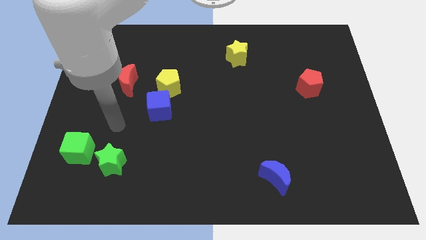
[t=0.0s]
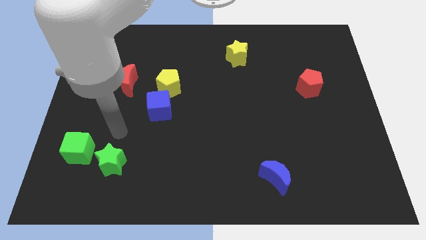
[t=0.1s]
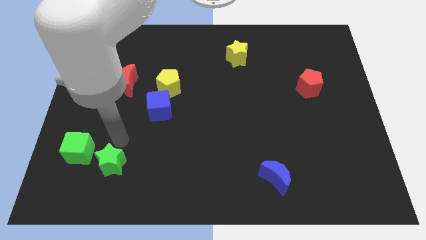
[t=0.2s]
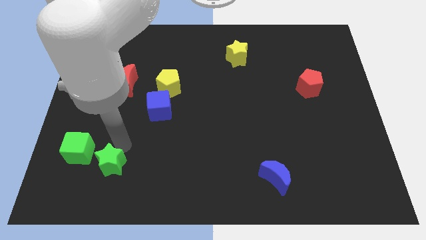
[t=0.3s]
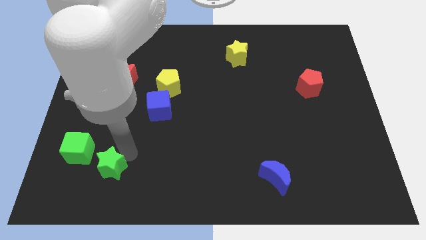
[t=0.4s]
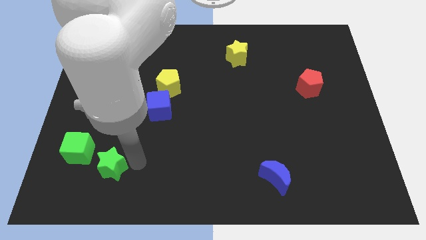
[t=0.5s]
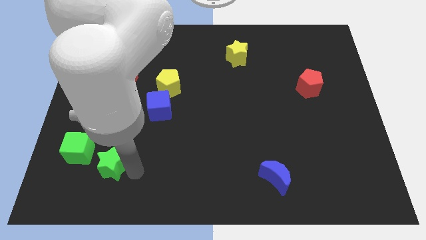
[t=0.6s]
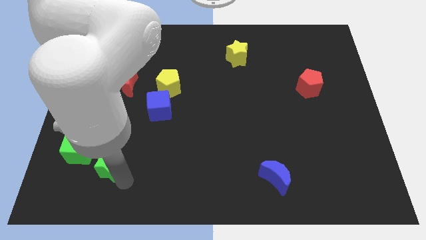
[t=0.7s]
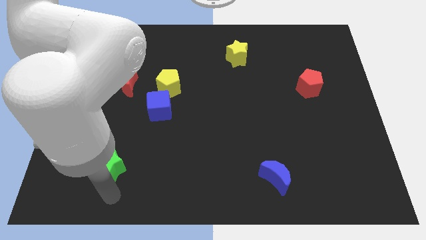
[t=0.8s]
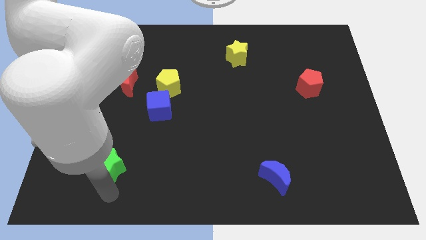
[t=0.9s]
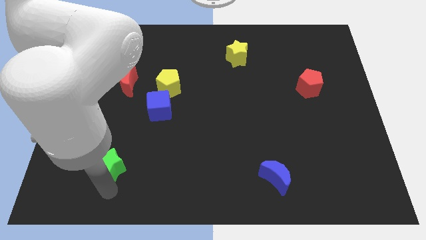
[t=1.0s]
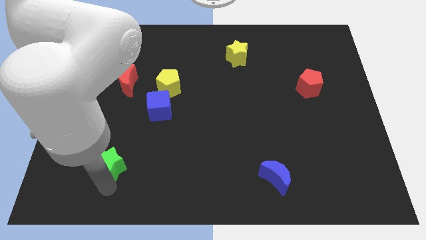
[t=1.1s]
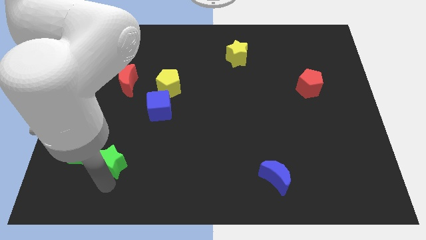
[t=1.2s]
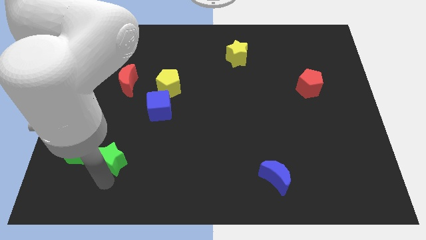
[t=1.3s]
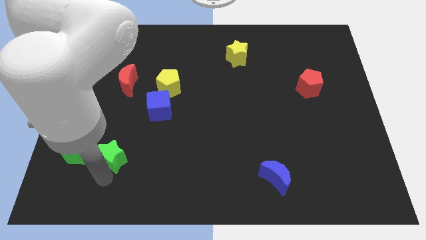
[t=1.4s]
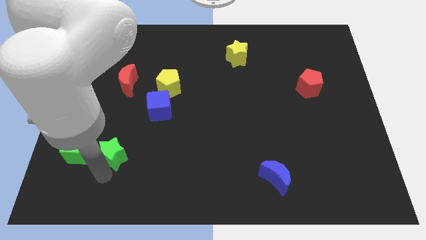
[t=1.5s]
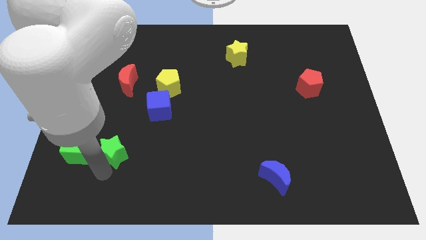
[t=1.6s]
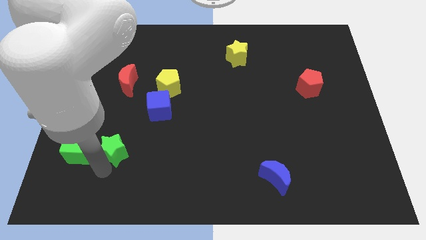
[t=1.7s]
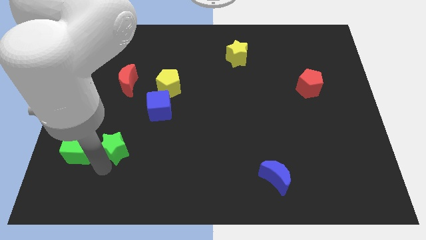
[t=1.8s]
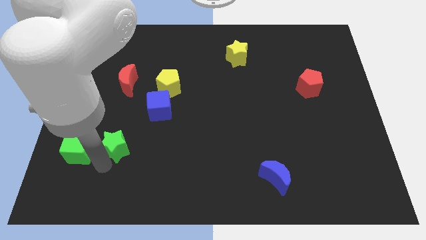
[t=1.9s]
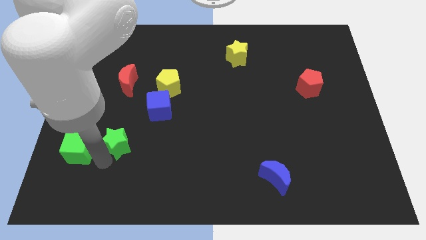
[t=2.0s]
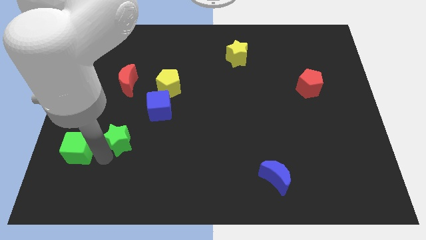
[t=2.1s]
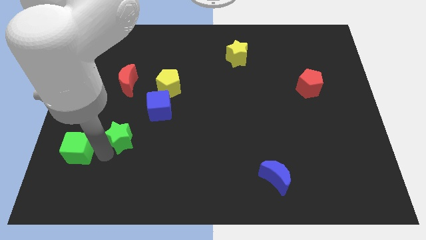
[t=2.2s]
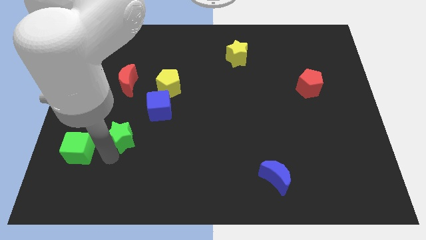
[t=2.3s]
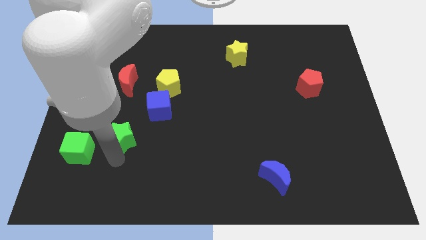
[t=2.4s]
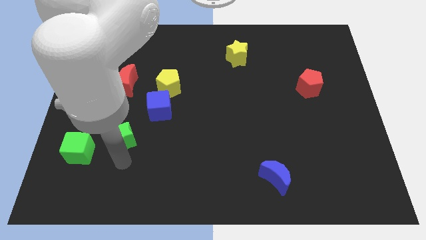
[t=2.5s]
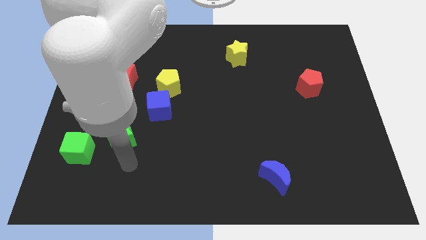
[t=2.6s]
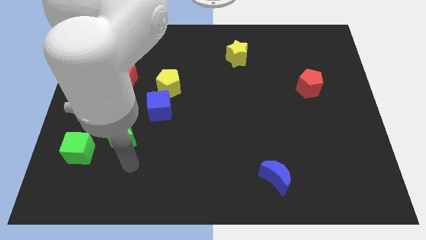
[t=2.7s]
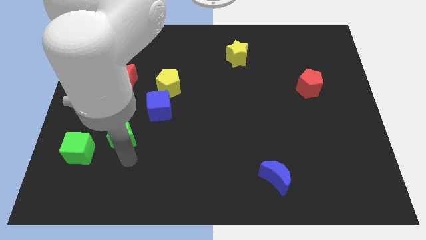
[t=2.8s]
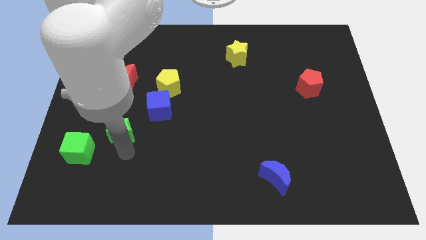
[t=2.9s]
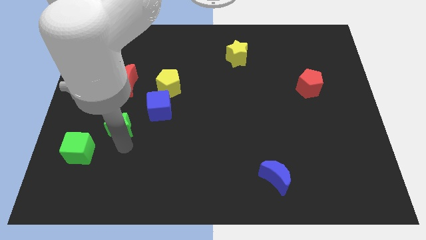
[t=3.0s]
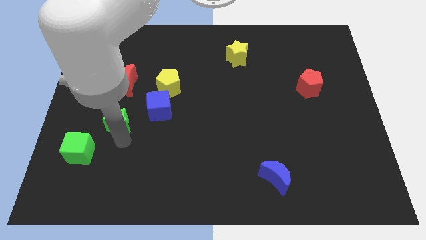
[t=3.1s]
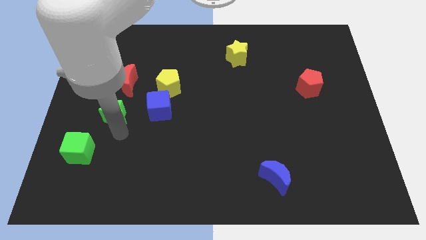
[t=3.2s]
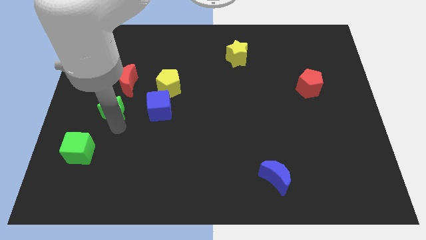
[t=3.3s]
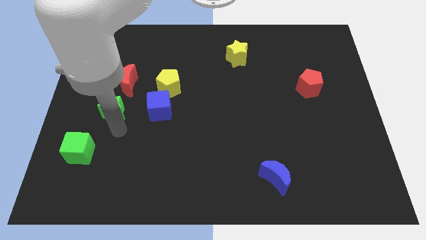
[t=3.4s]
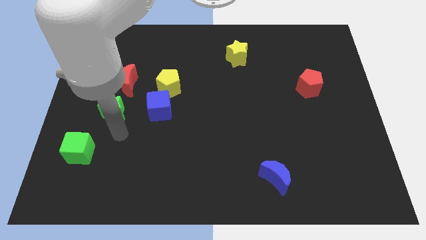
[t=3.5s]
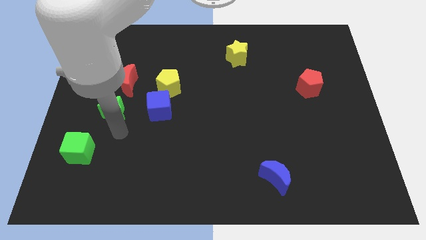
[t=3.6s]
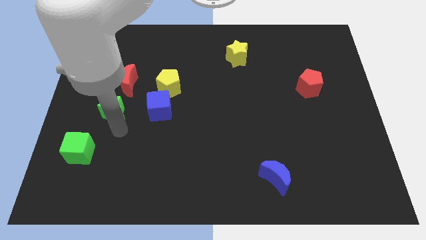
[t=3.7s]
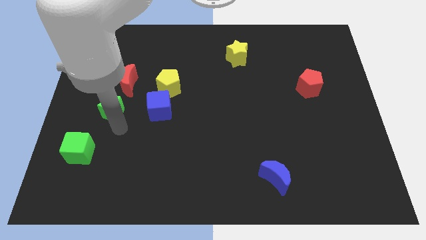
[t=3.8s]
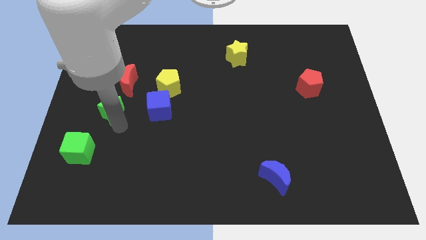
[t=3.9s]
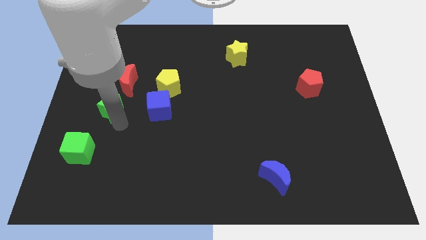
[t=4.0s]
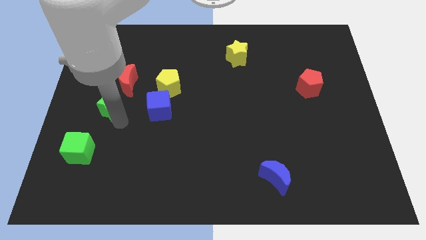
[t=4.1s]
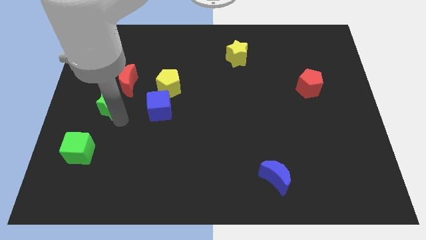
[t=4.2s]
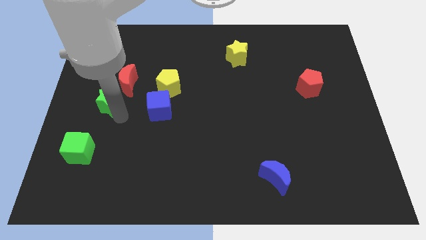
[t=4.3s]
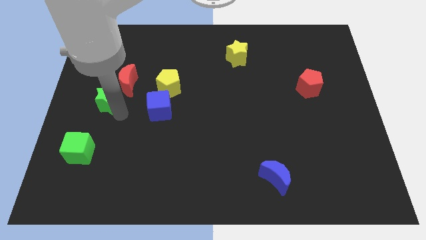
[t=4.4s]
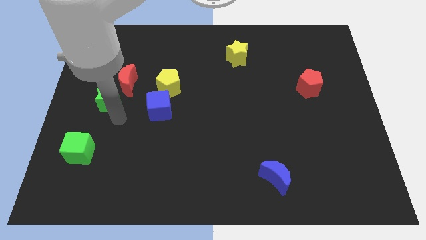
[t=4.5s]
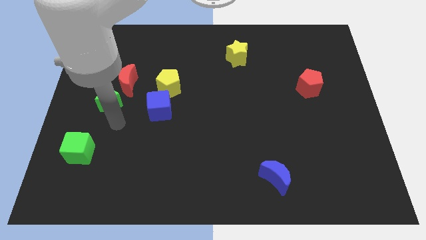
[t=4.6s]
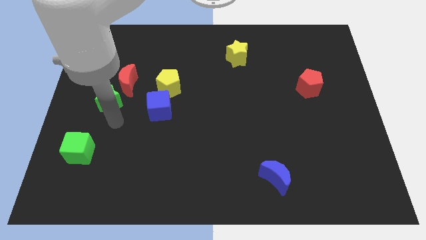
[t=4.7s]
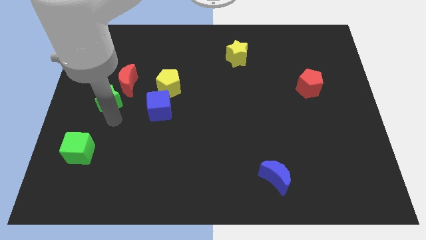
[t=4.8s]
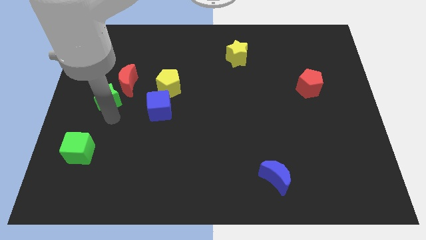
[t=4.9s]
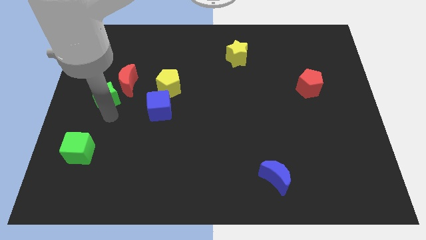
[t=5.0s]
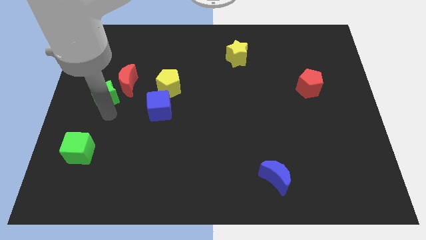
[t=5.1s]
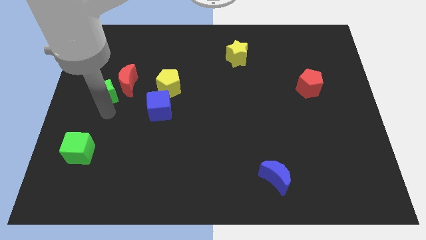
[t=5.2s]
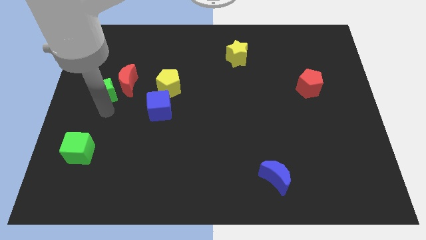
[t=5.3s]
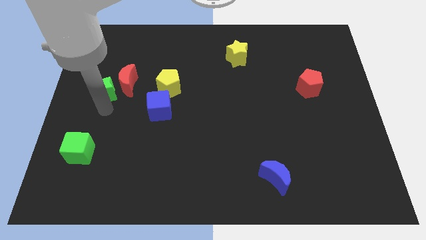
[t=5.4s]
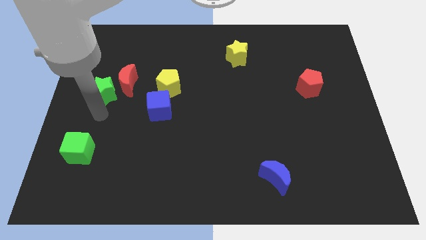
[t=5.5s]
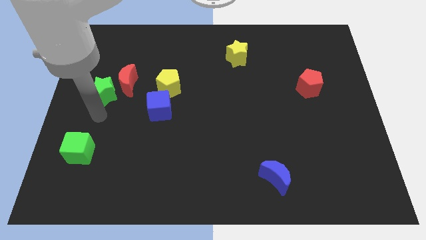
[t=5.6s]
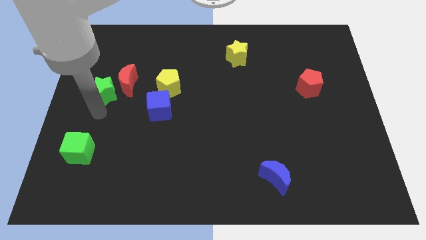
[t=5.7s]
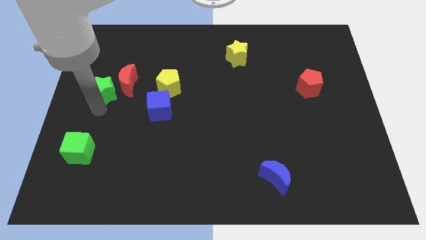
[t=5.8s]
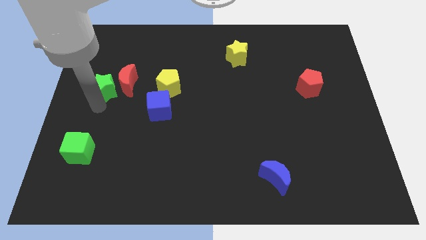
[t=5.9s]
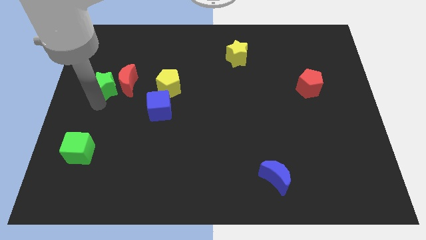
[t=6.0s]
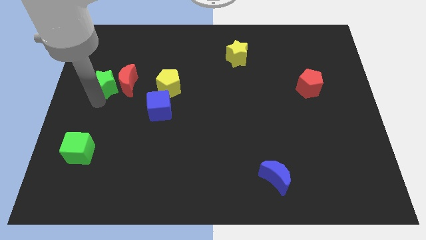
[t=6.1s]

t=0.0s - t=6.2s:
slide the green star to the top left of the red moon

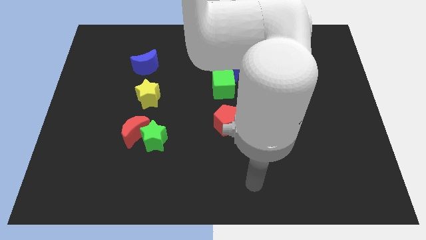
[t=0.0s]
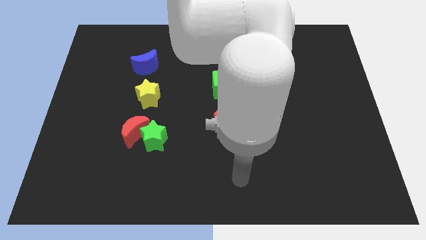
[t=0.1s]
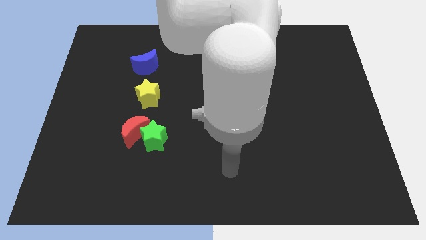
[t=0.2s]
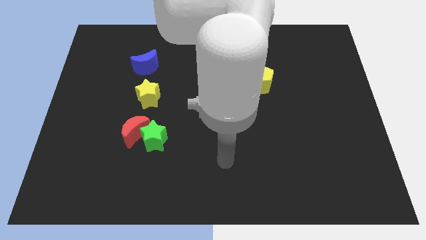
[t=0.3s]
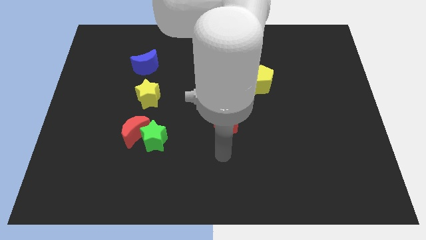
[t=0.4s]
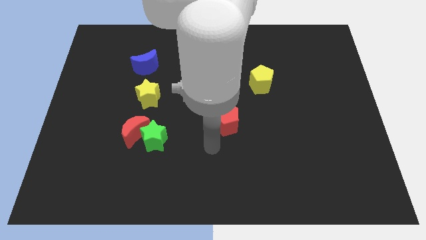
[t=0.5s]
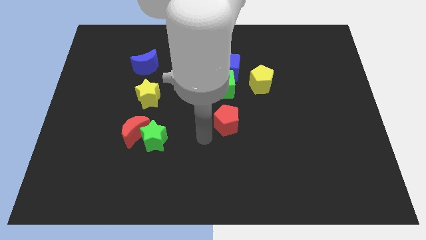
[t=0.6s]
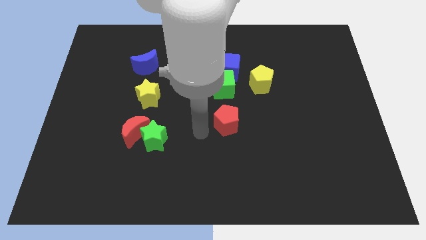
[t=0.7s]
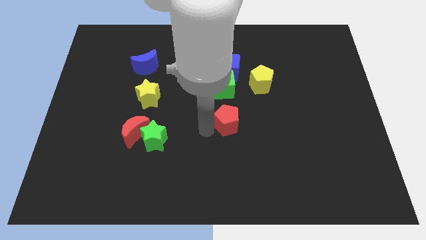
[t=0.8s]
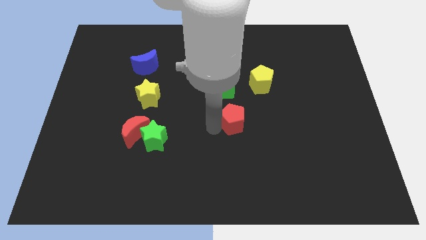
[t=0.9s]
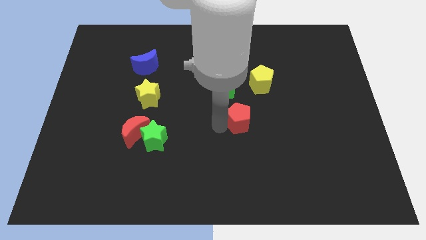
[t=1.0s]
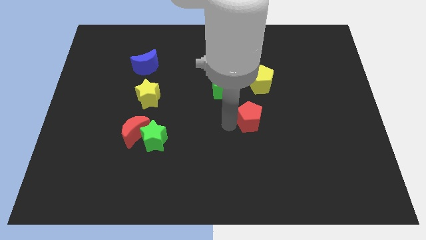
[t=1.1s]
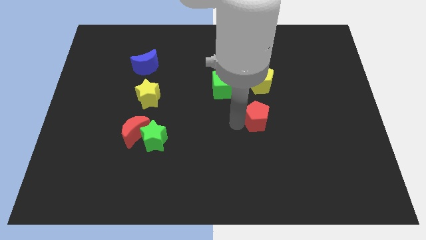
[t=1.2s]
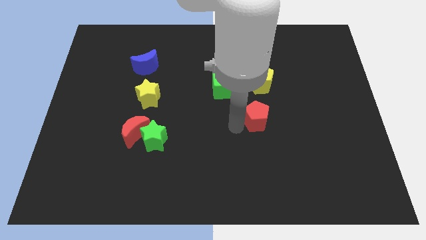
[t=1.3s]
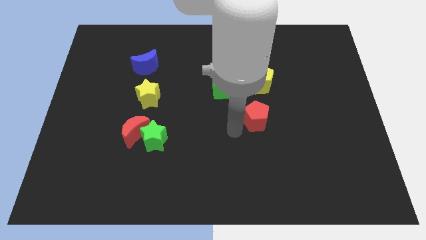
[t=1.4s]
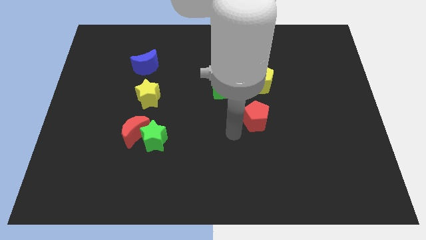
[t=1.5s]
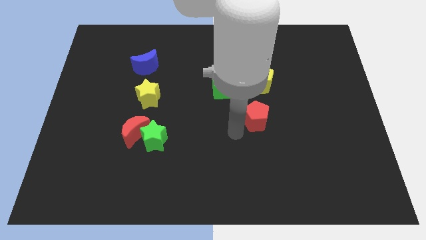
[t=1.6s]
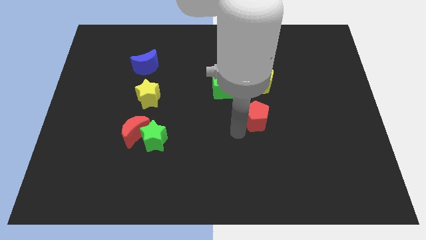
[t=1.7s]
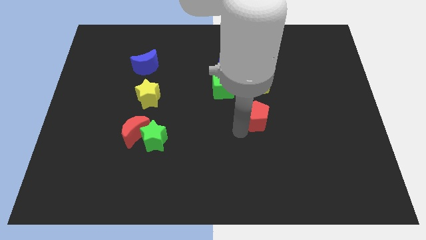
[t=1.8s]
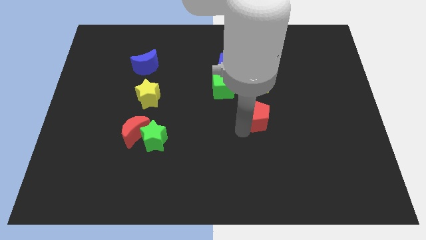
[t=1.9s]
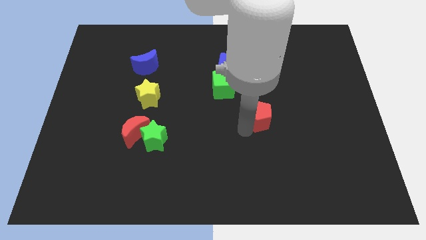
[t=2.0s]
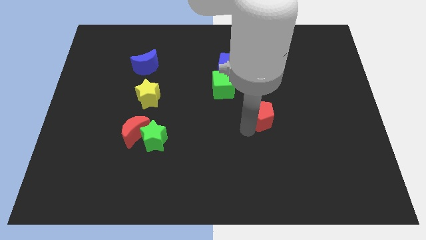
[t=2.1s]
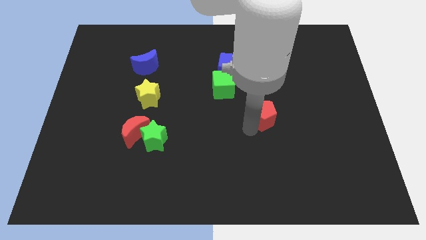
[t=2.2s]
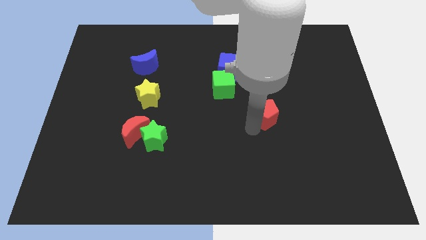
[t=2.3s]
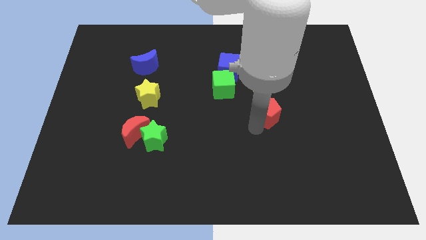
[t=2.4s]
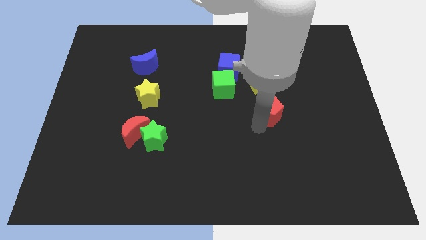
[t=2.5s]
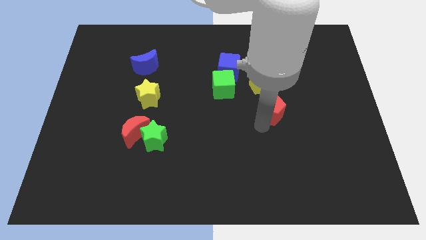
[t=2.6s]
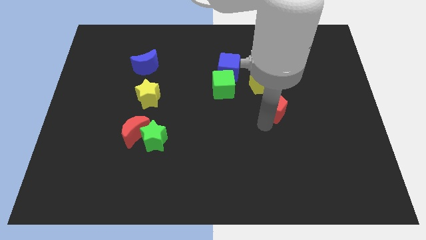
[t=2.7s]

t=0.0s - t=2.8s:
slide the red pentagon diagonally down and to the right of the yellow pentagon
